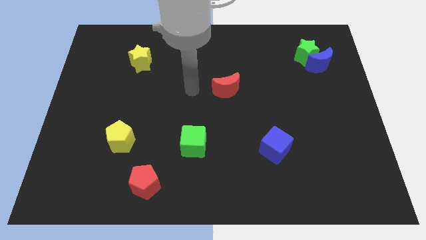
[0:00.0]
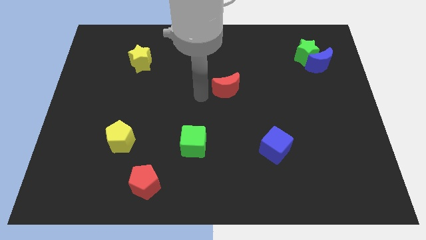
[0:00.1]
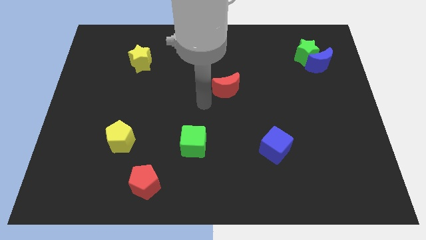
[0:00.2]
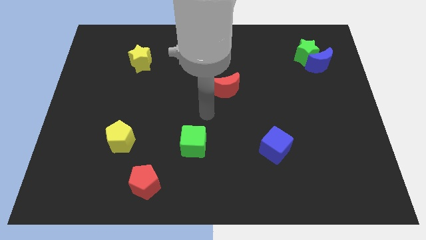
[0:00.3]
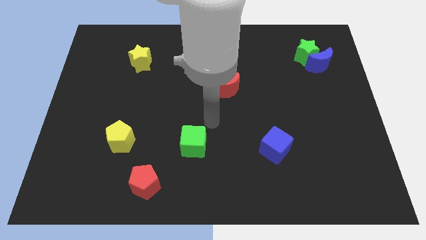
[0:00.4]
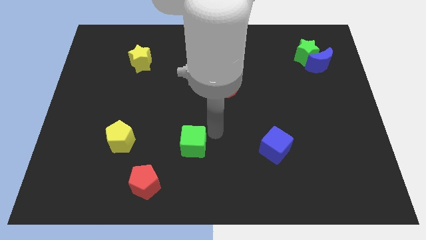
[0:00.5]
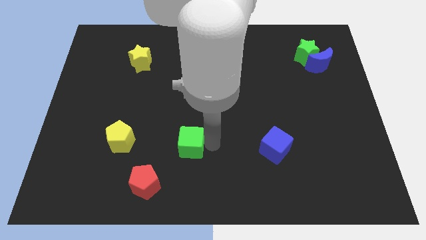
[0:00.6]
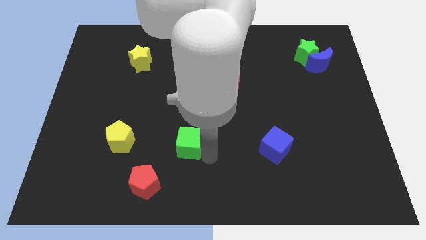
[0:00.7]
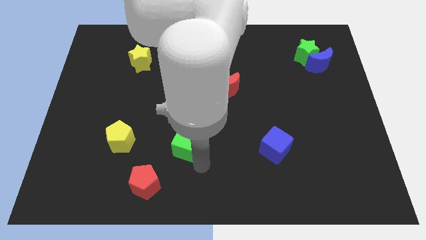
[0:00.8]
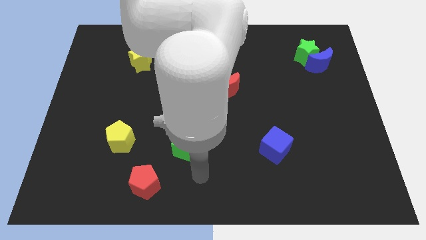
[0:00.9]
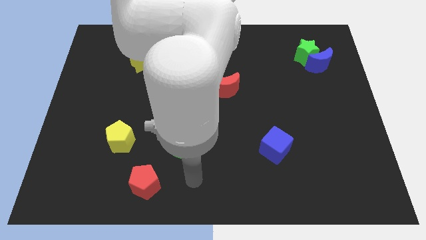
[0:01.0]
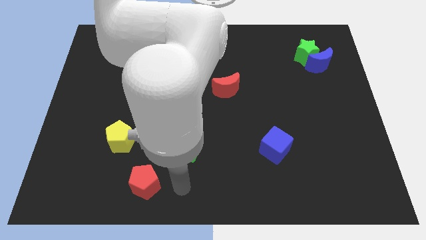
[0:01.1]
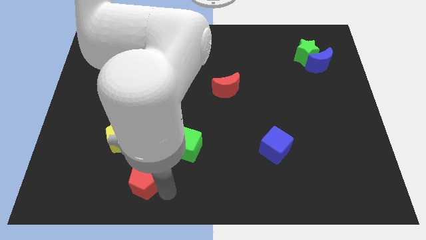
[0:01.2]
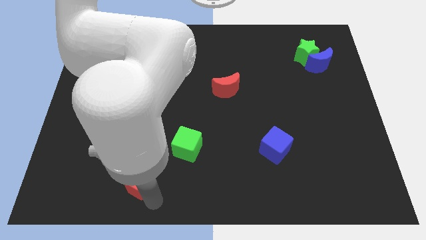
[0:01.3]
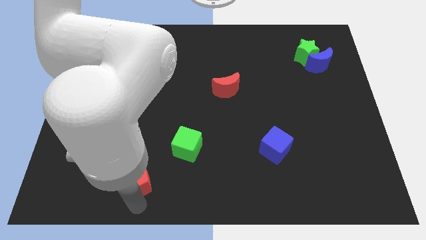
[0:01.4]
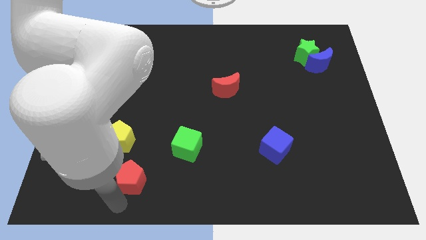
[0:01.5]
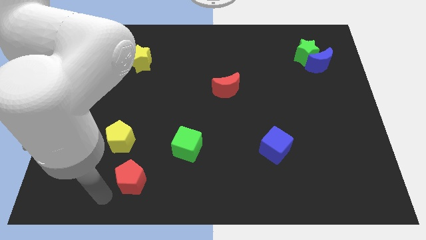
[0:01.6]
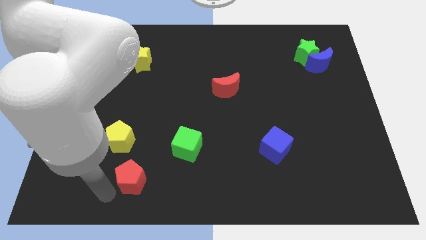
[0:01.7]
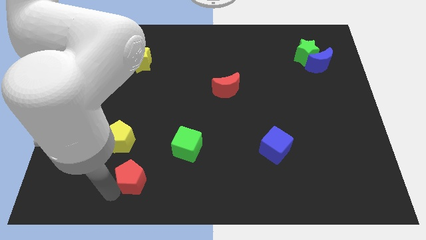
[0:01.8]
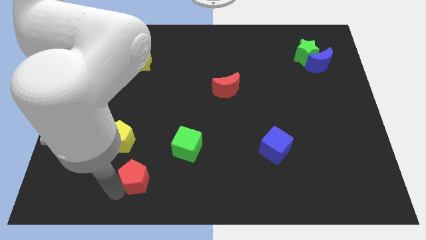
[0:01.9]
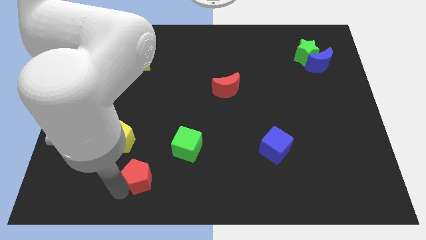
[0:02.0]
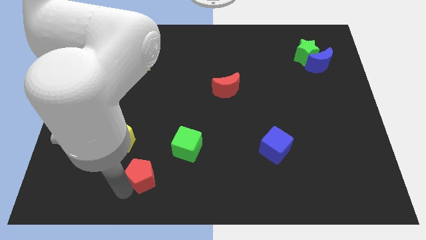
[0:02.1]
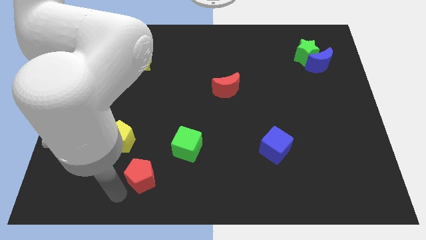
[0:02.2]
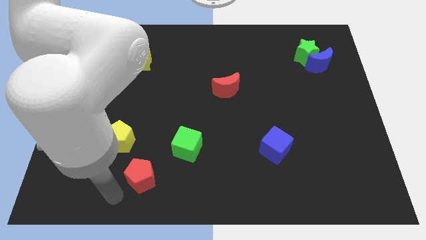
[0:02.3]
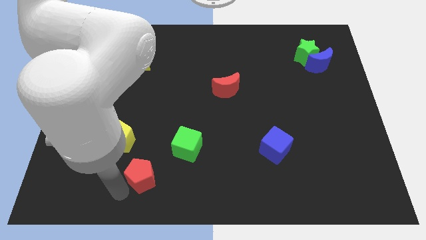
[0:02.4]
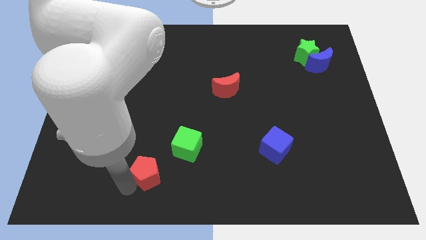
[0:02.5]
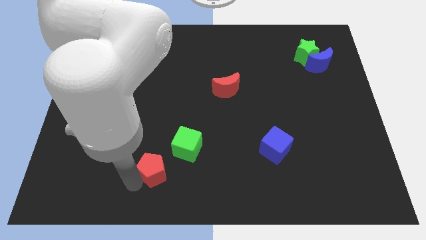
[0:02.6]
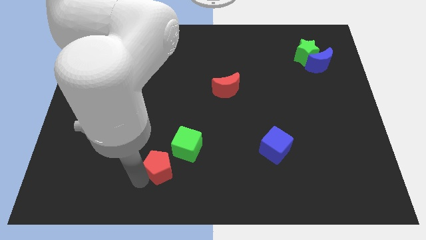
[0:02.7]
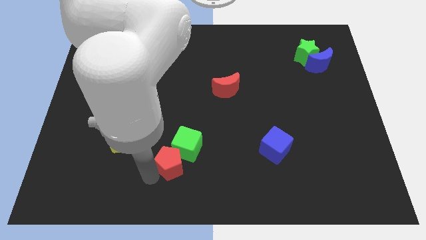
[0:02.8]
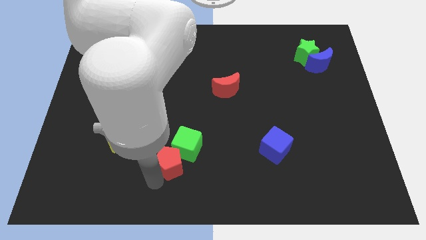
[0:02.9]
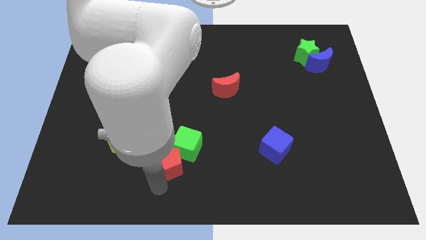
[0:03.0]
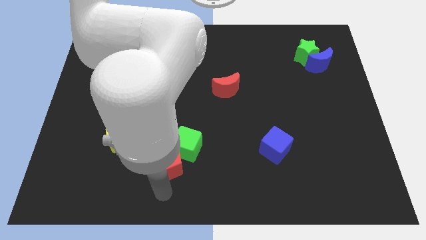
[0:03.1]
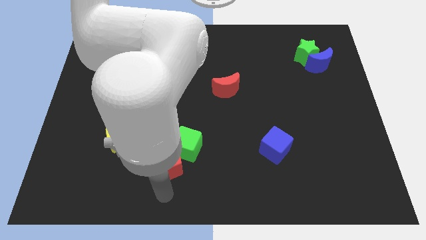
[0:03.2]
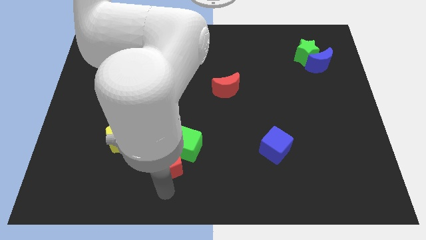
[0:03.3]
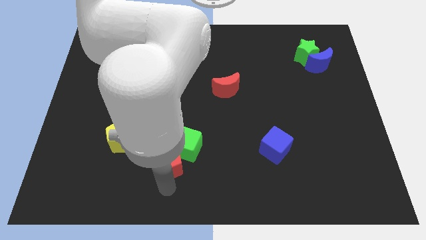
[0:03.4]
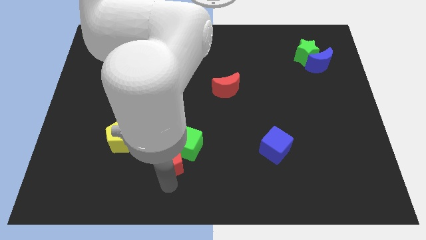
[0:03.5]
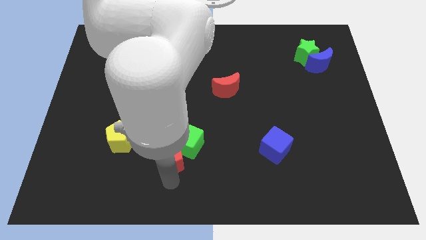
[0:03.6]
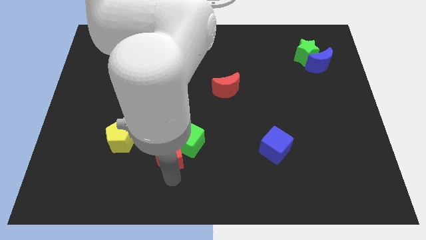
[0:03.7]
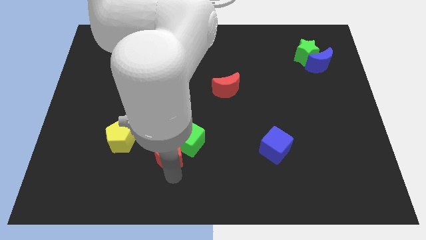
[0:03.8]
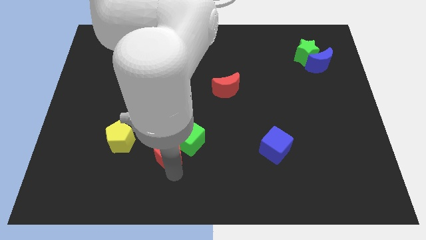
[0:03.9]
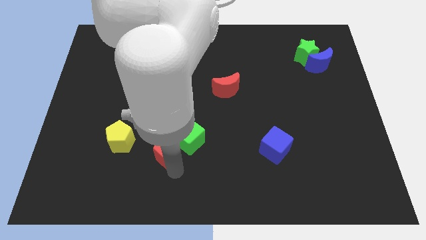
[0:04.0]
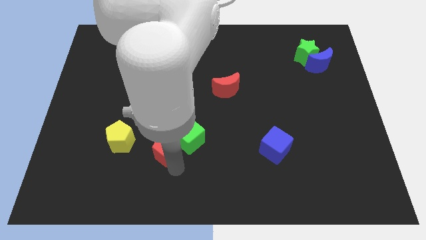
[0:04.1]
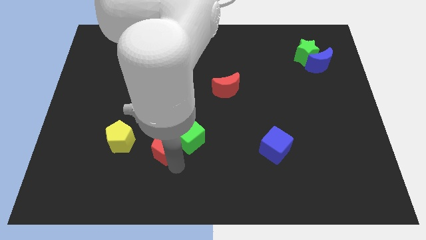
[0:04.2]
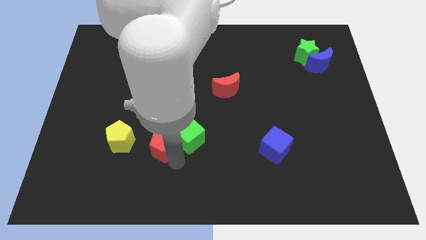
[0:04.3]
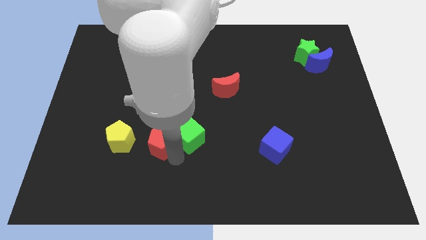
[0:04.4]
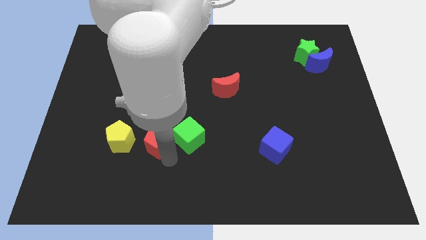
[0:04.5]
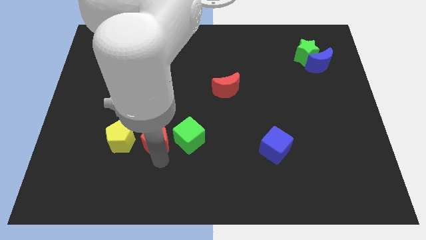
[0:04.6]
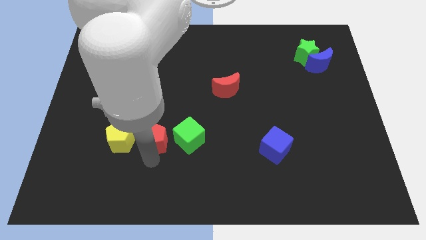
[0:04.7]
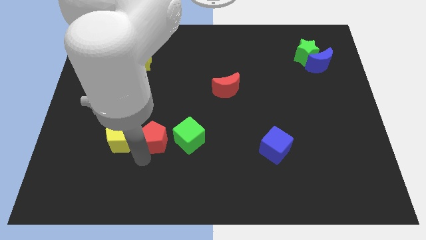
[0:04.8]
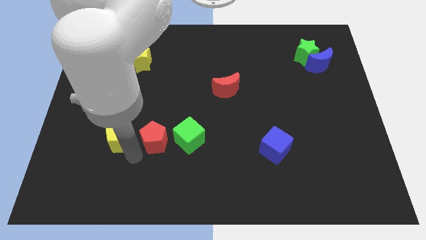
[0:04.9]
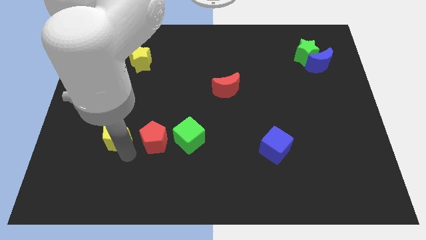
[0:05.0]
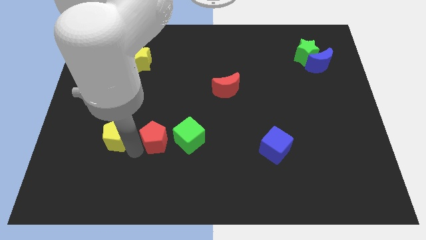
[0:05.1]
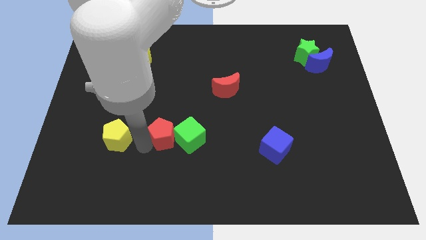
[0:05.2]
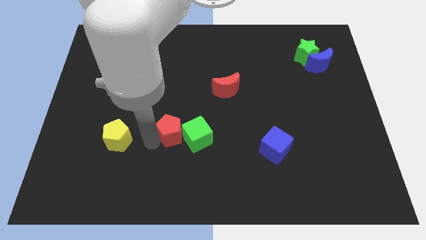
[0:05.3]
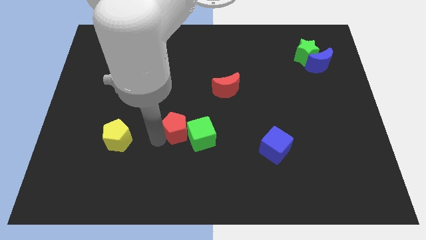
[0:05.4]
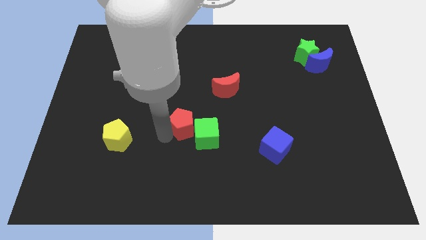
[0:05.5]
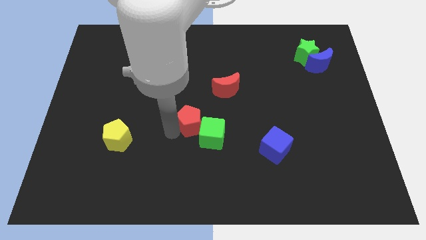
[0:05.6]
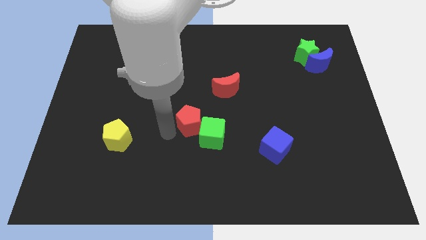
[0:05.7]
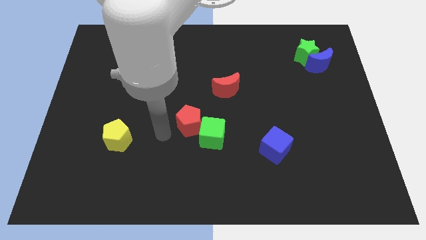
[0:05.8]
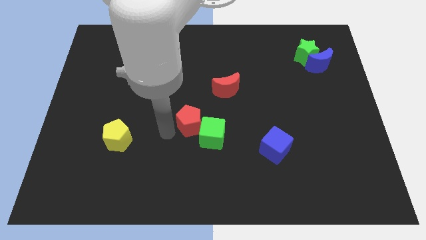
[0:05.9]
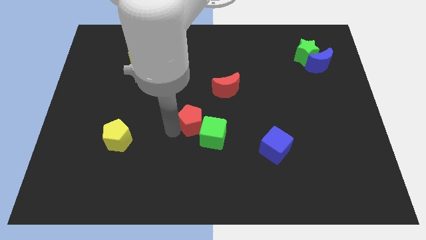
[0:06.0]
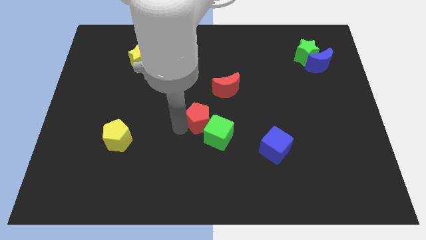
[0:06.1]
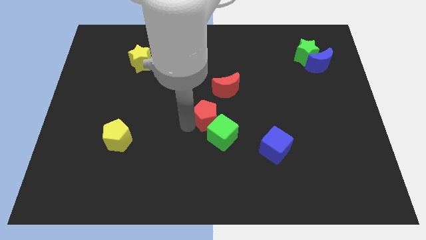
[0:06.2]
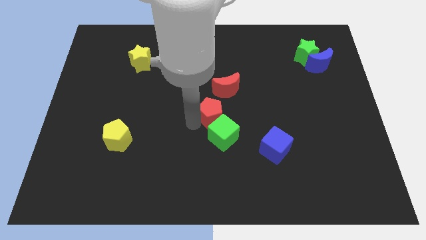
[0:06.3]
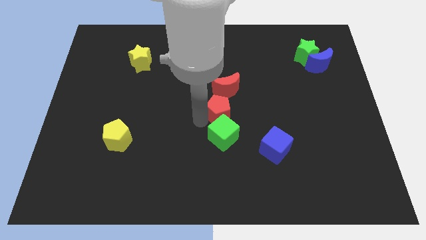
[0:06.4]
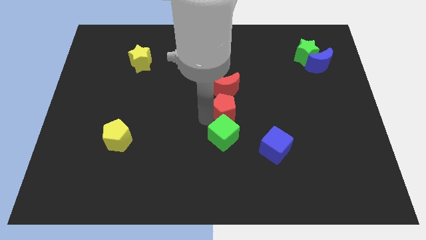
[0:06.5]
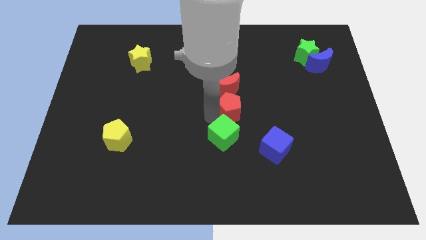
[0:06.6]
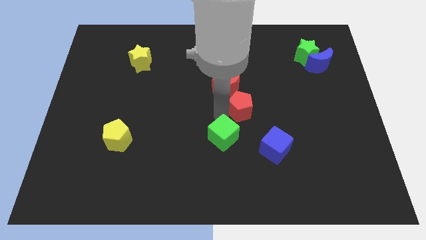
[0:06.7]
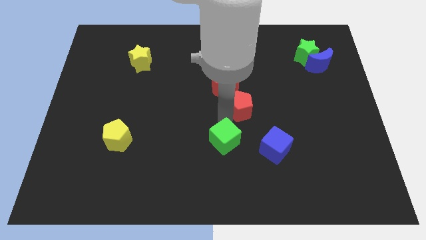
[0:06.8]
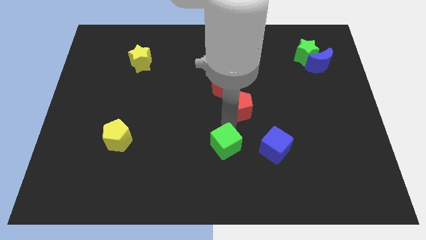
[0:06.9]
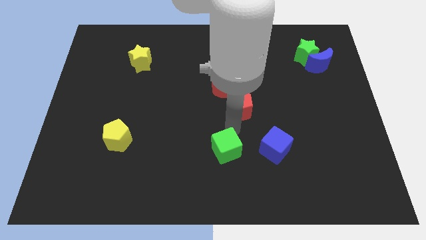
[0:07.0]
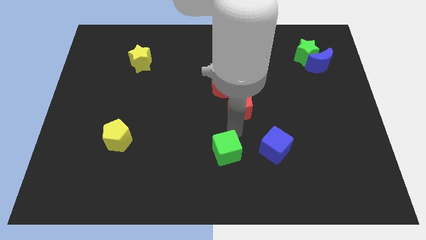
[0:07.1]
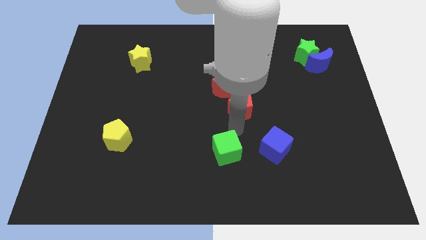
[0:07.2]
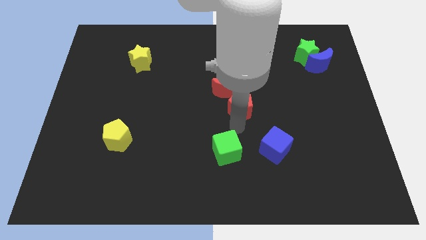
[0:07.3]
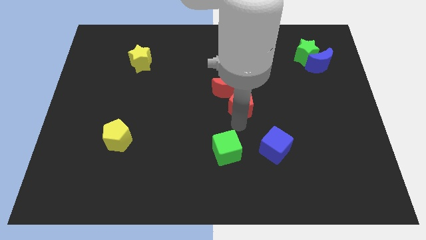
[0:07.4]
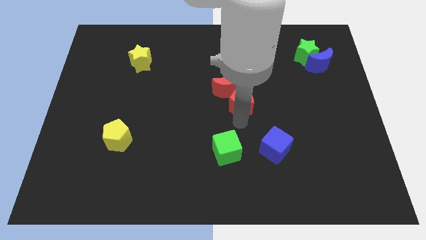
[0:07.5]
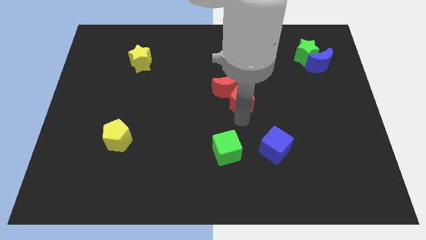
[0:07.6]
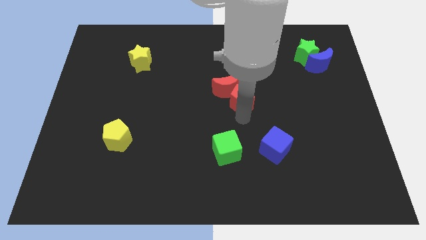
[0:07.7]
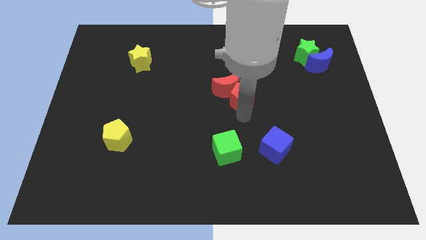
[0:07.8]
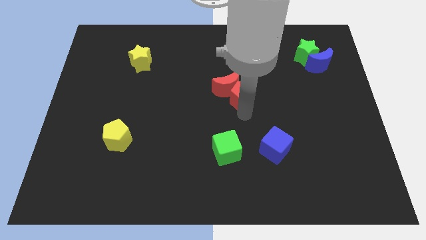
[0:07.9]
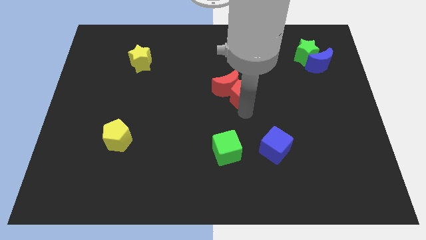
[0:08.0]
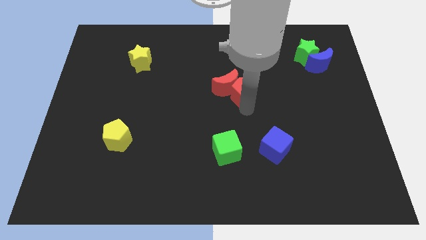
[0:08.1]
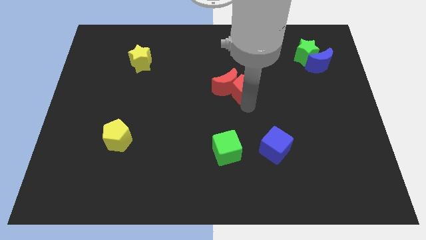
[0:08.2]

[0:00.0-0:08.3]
push the red pentagon diagonally up and to the right of the red moon
